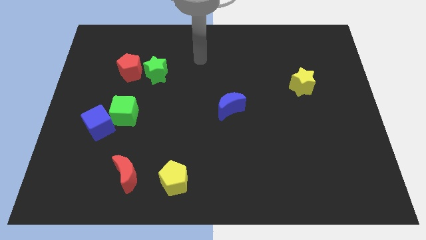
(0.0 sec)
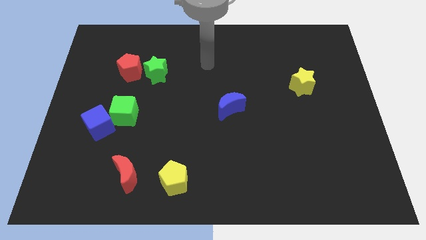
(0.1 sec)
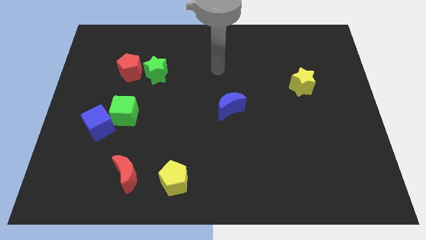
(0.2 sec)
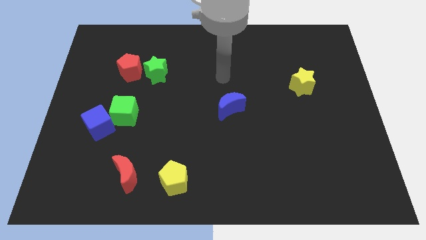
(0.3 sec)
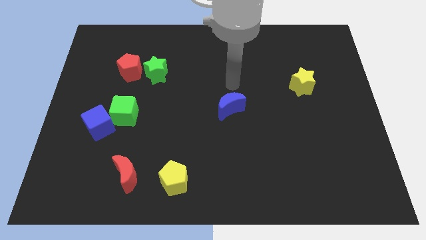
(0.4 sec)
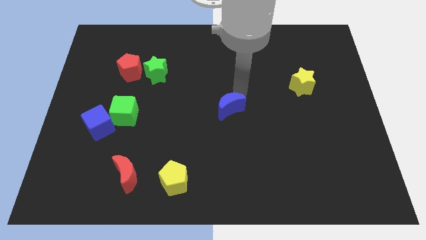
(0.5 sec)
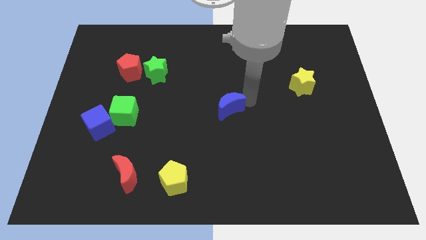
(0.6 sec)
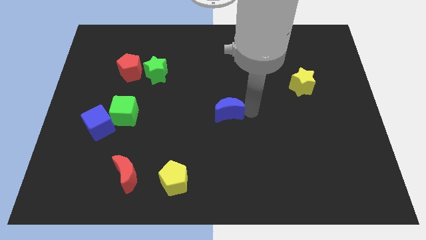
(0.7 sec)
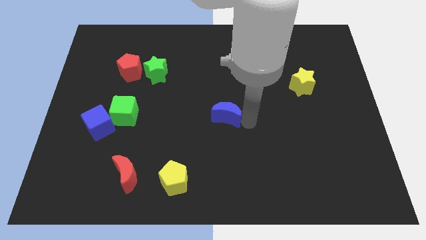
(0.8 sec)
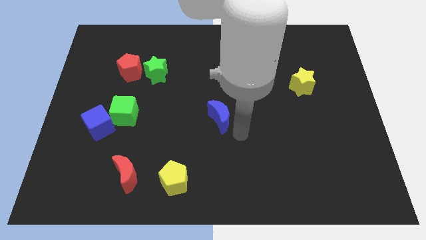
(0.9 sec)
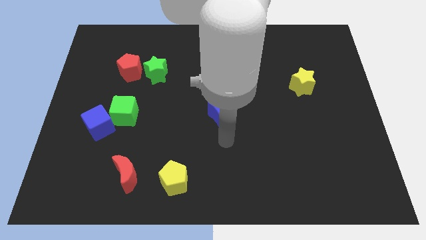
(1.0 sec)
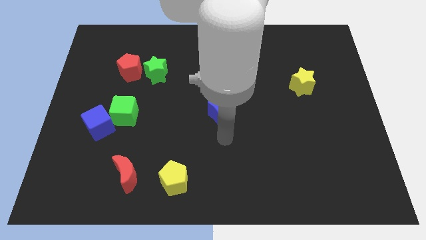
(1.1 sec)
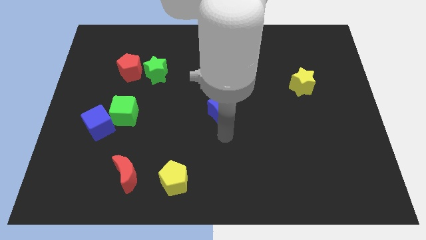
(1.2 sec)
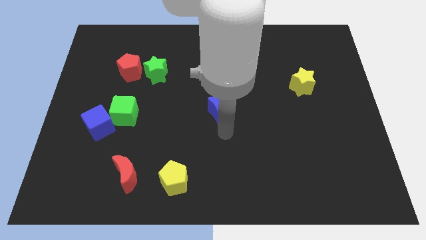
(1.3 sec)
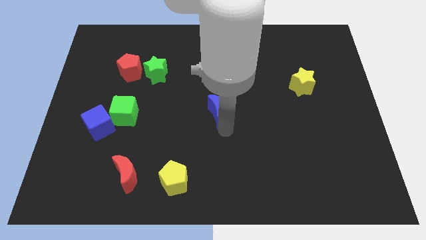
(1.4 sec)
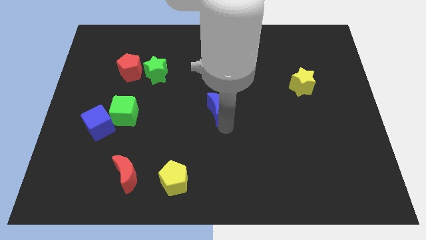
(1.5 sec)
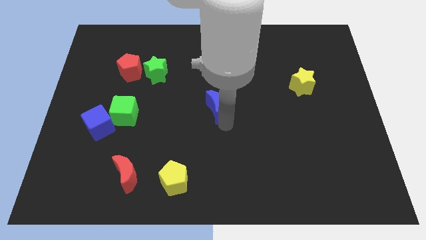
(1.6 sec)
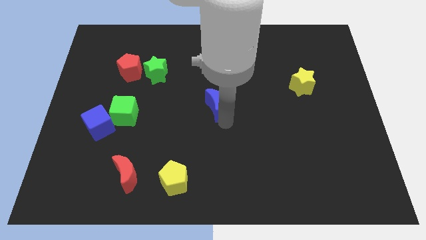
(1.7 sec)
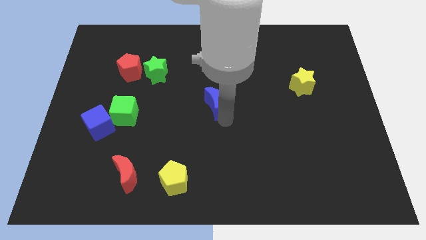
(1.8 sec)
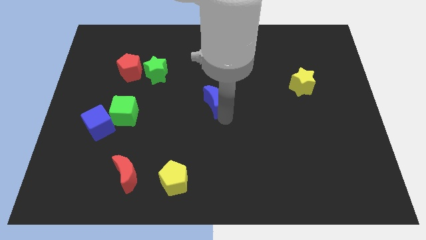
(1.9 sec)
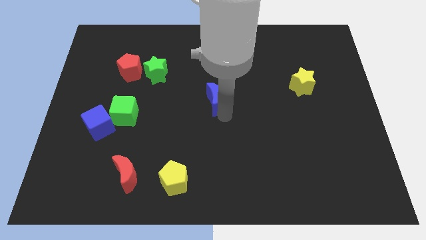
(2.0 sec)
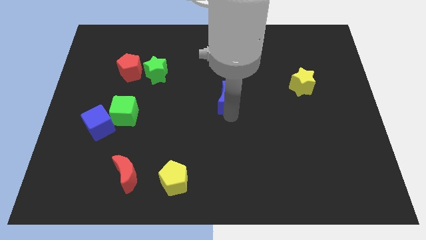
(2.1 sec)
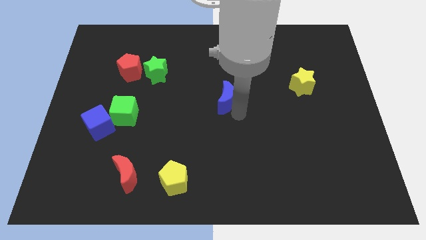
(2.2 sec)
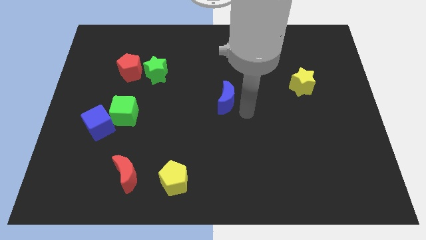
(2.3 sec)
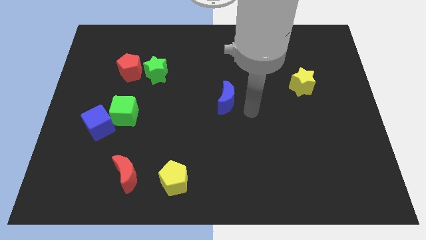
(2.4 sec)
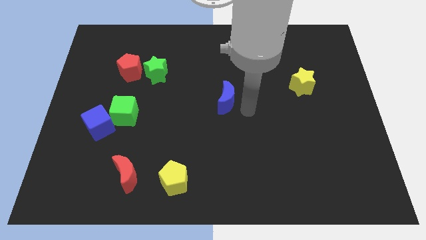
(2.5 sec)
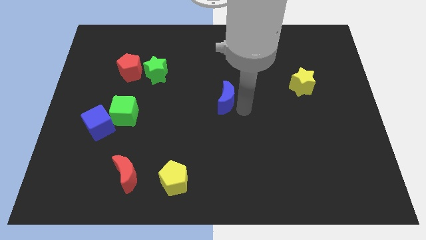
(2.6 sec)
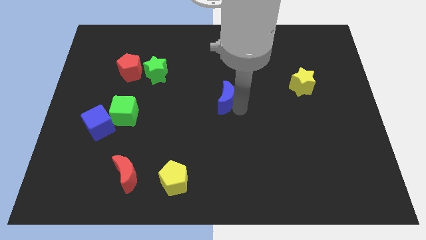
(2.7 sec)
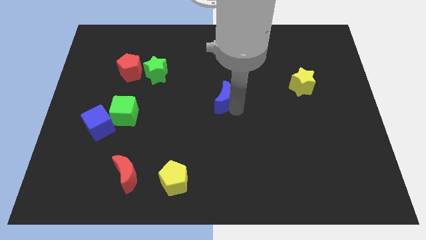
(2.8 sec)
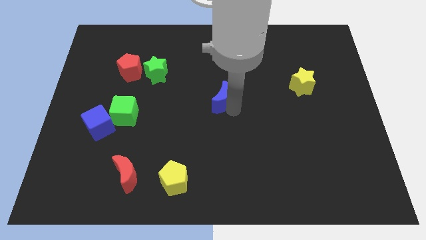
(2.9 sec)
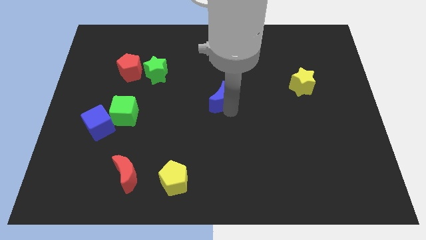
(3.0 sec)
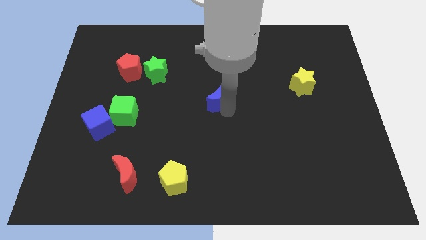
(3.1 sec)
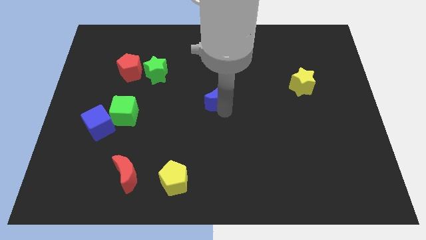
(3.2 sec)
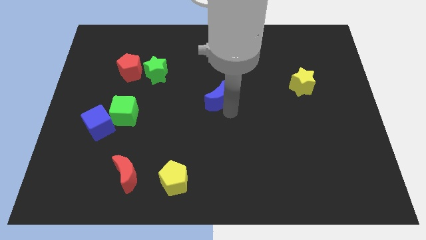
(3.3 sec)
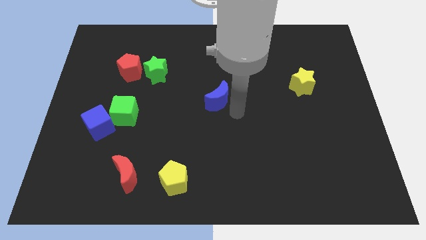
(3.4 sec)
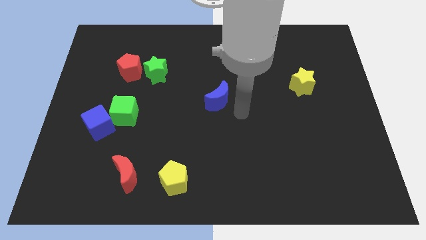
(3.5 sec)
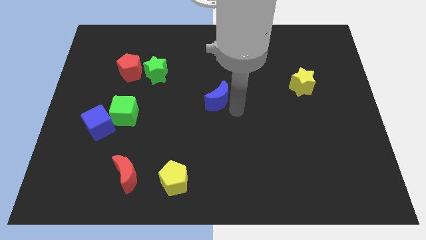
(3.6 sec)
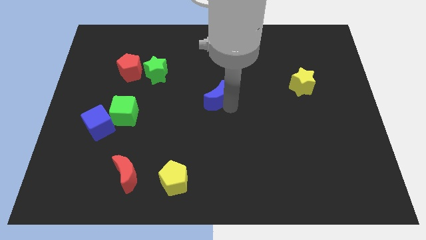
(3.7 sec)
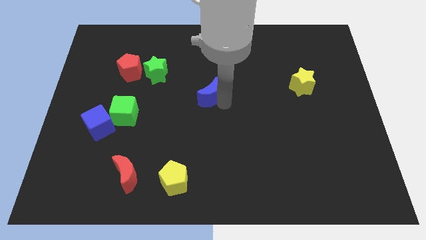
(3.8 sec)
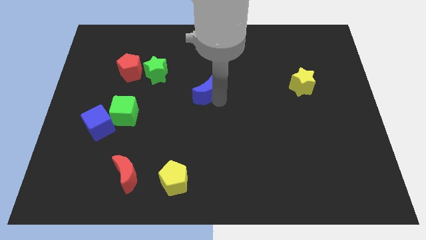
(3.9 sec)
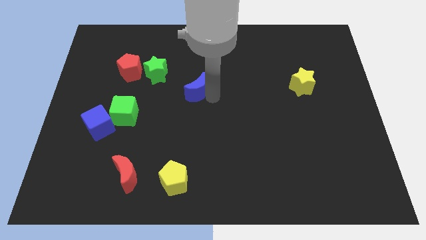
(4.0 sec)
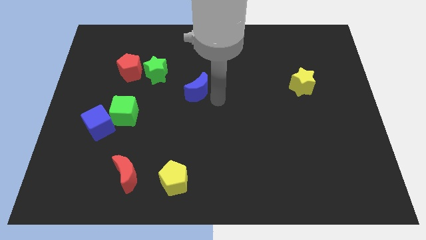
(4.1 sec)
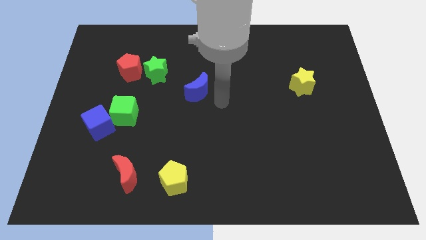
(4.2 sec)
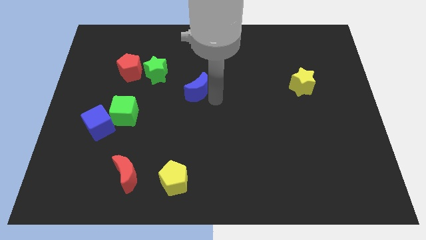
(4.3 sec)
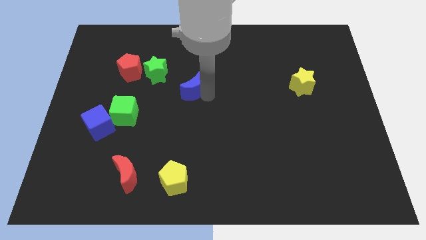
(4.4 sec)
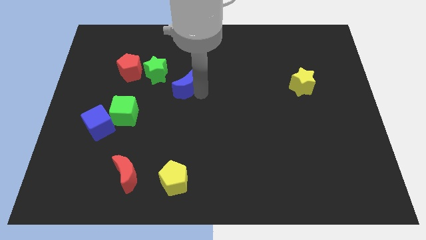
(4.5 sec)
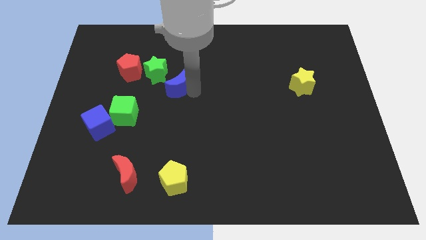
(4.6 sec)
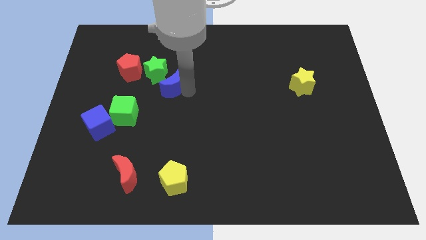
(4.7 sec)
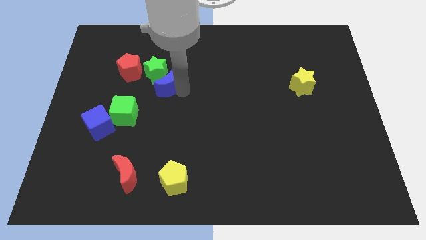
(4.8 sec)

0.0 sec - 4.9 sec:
slide the blue moon towards the green star

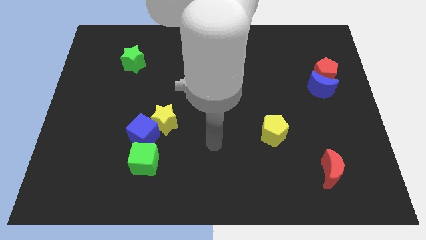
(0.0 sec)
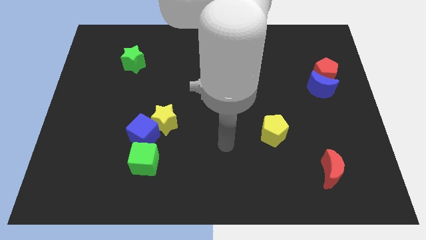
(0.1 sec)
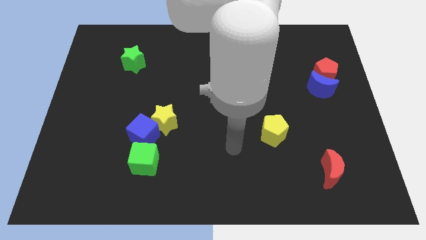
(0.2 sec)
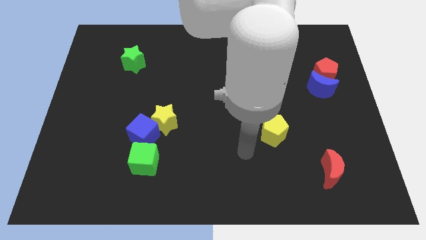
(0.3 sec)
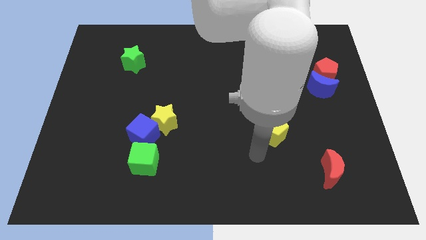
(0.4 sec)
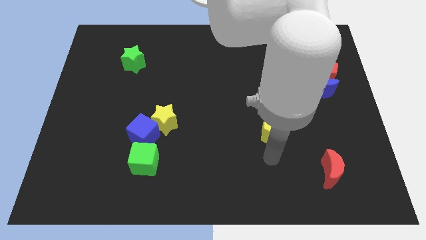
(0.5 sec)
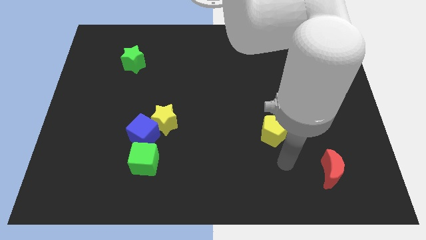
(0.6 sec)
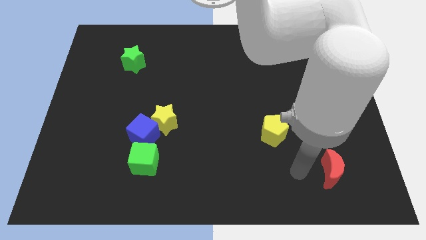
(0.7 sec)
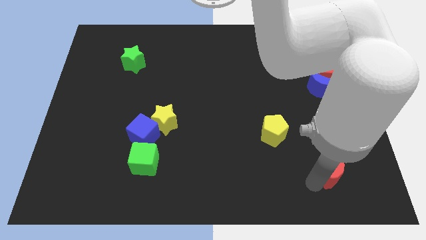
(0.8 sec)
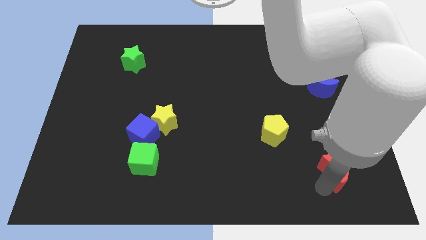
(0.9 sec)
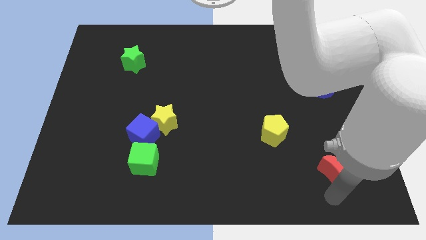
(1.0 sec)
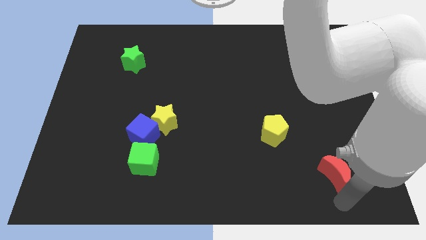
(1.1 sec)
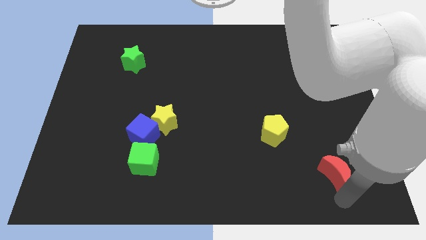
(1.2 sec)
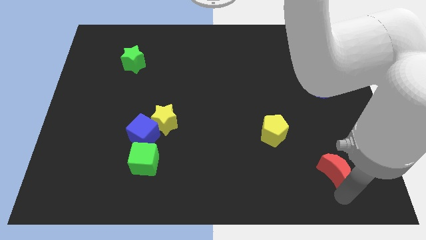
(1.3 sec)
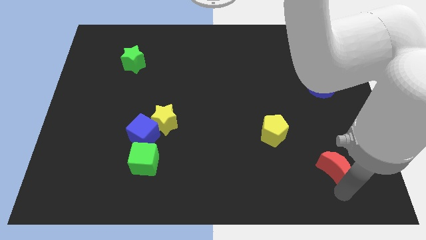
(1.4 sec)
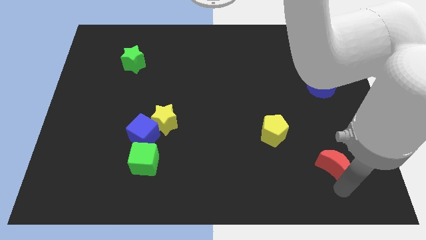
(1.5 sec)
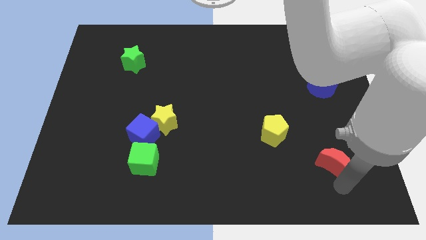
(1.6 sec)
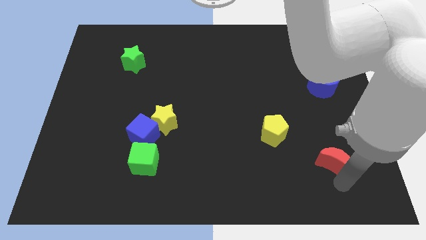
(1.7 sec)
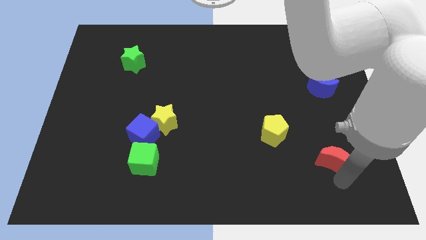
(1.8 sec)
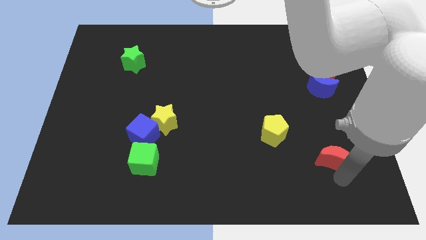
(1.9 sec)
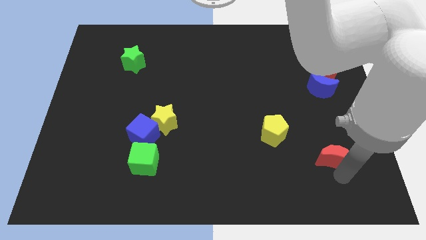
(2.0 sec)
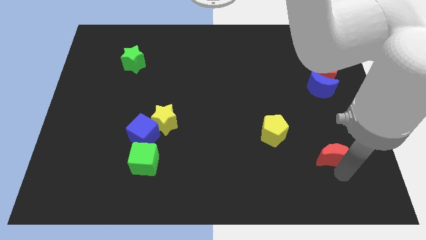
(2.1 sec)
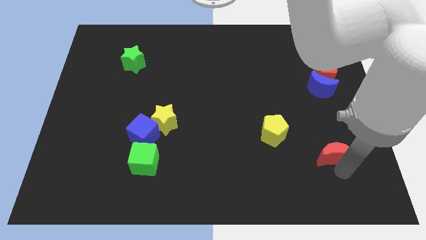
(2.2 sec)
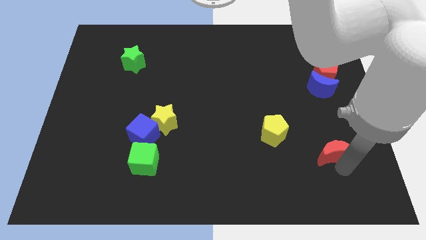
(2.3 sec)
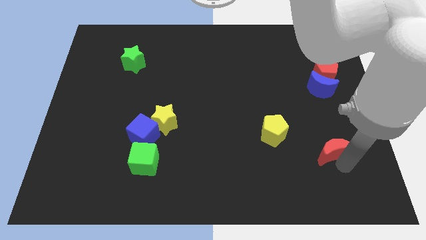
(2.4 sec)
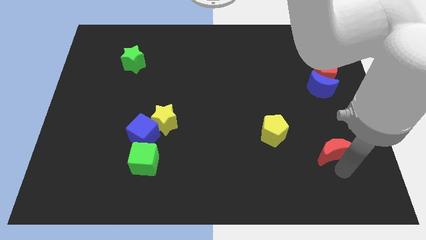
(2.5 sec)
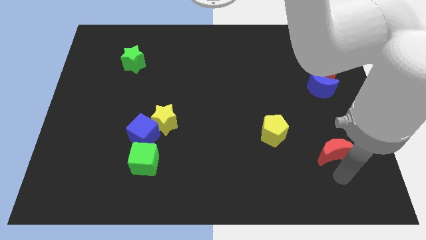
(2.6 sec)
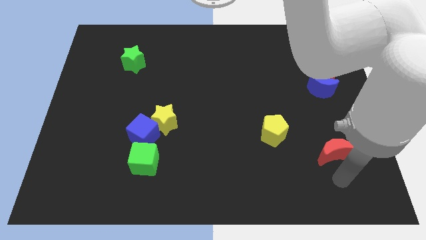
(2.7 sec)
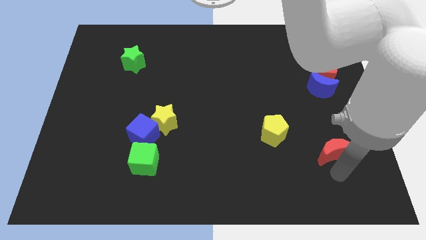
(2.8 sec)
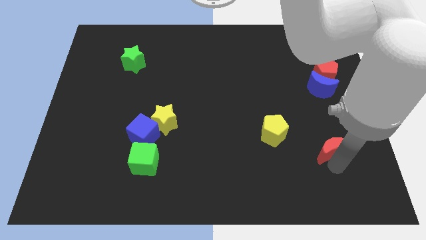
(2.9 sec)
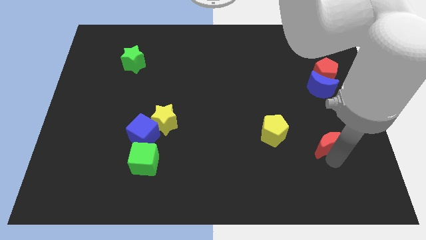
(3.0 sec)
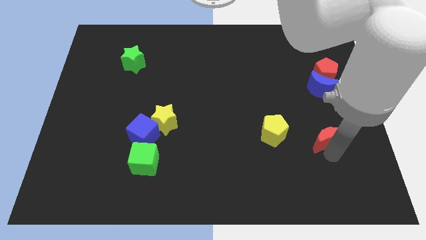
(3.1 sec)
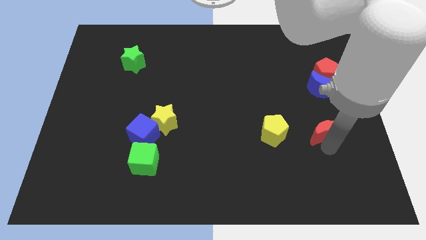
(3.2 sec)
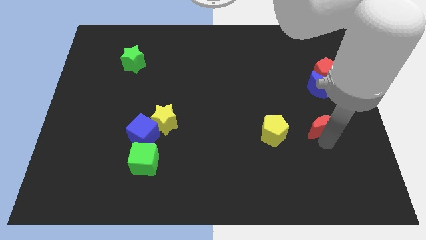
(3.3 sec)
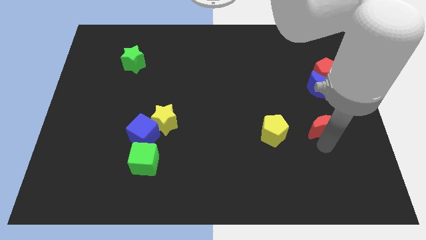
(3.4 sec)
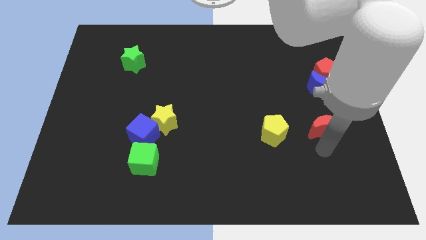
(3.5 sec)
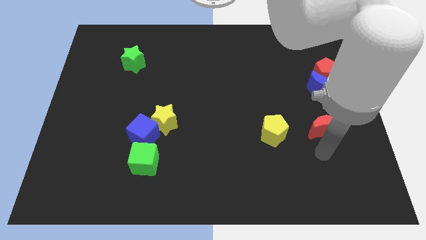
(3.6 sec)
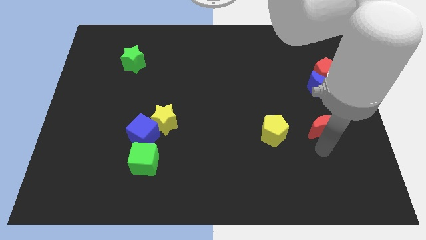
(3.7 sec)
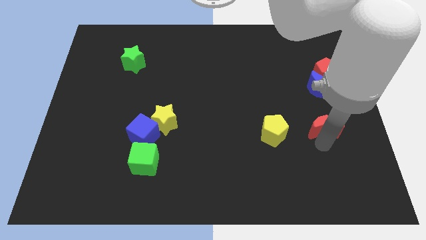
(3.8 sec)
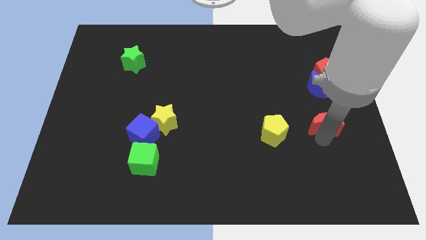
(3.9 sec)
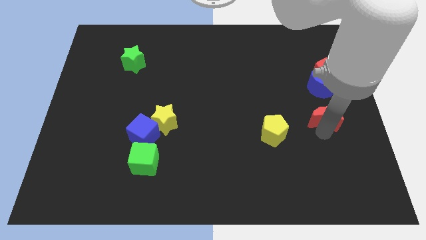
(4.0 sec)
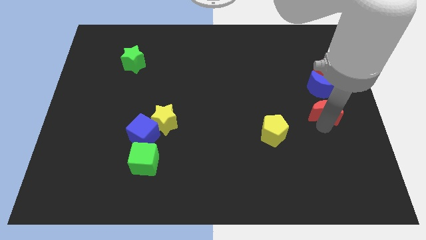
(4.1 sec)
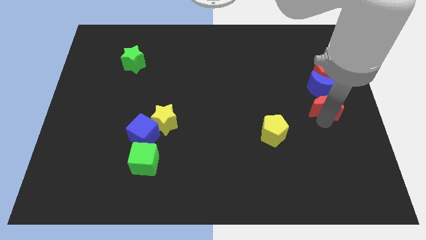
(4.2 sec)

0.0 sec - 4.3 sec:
slide the red moon to the blue moon
